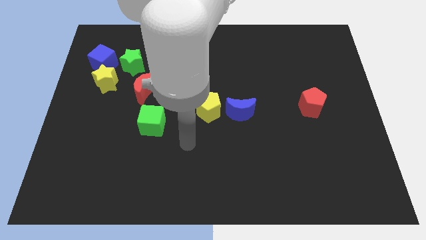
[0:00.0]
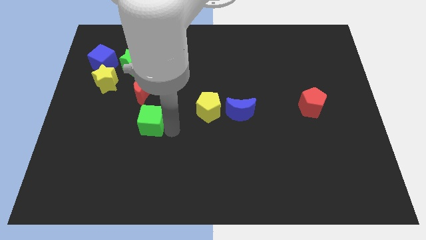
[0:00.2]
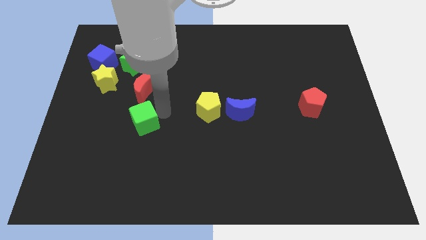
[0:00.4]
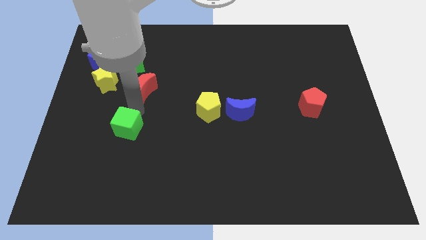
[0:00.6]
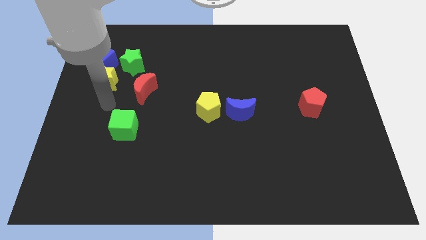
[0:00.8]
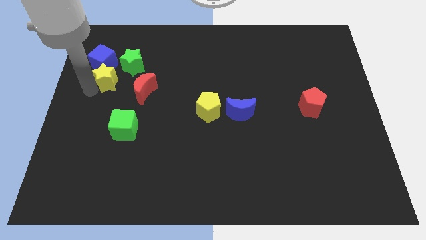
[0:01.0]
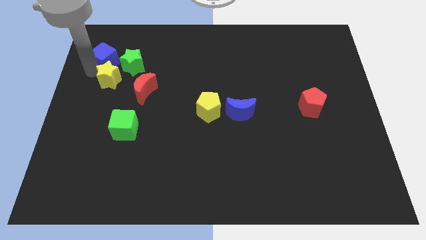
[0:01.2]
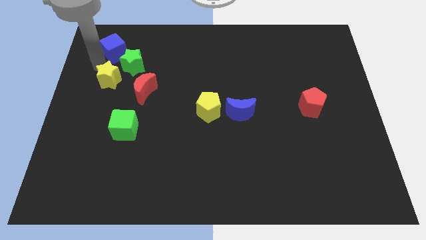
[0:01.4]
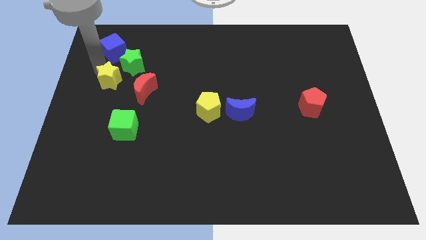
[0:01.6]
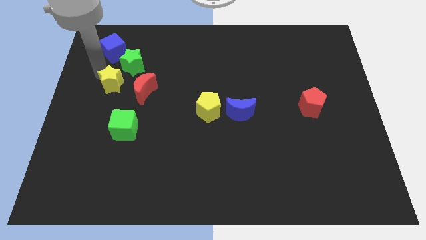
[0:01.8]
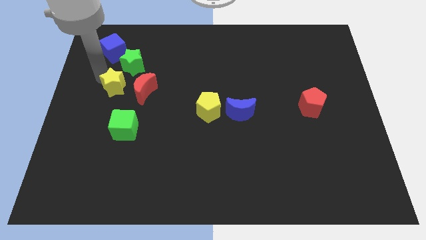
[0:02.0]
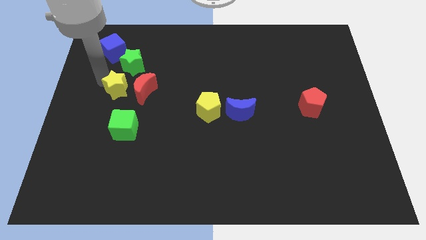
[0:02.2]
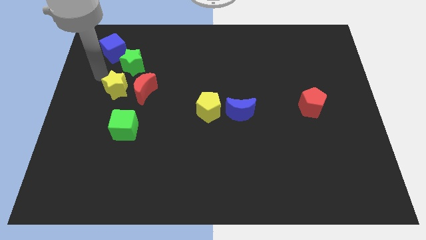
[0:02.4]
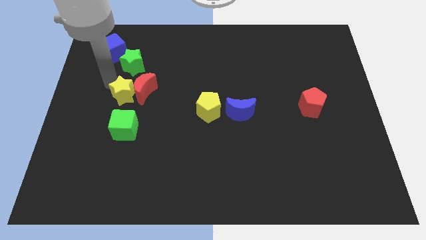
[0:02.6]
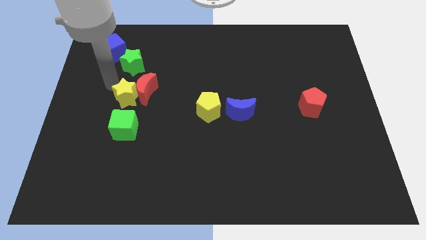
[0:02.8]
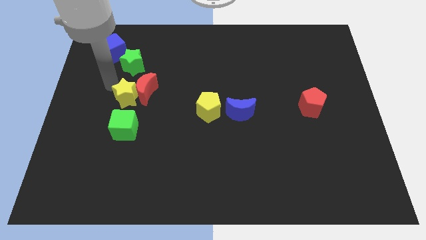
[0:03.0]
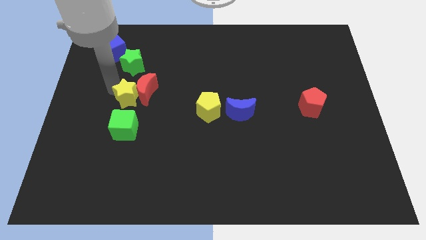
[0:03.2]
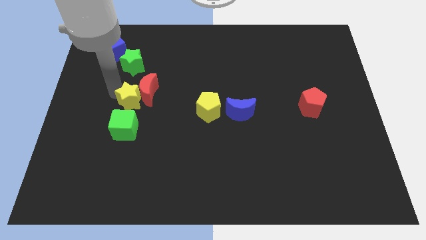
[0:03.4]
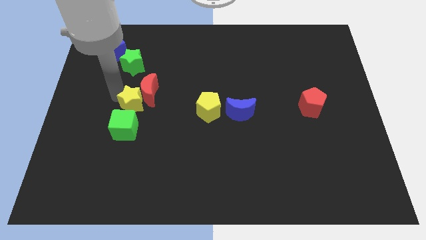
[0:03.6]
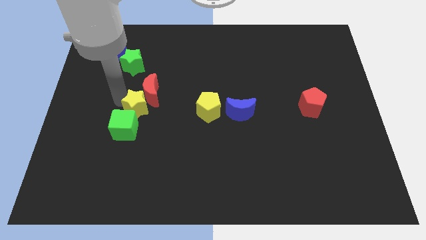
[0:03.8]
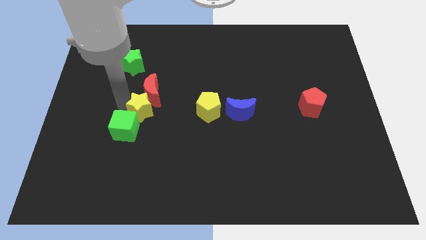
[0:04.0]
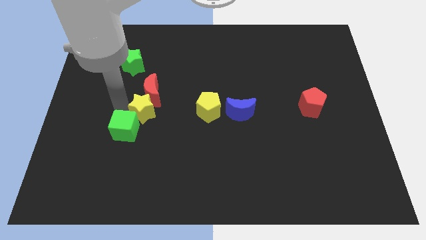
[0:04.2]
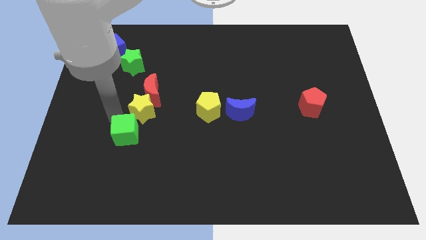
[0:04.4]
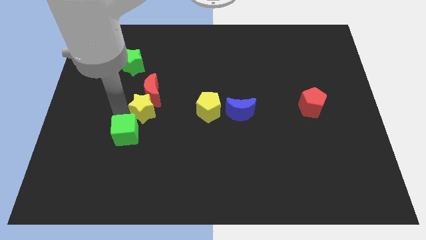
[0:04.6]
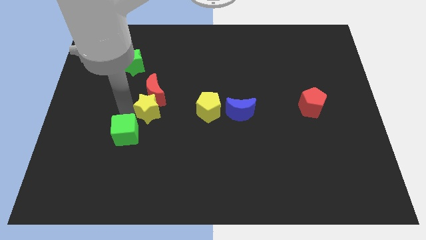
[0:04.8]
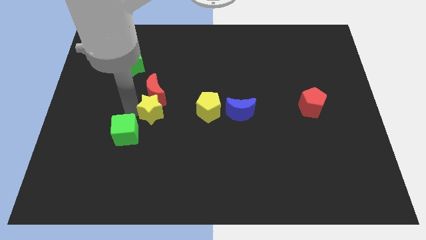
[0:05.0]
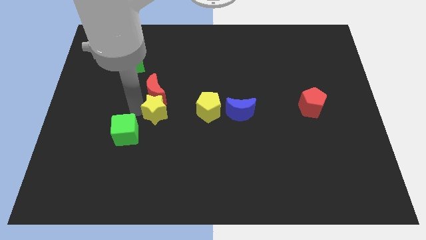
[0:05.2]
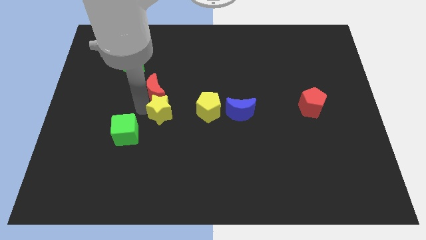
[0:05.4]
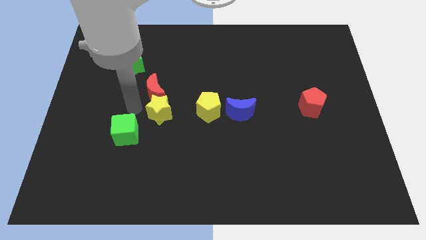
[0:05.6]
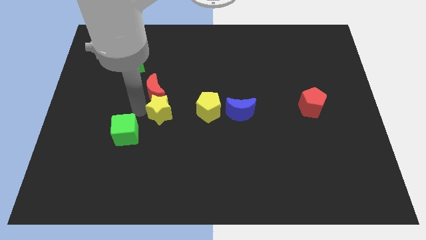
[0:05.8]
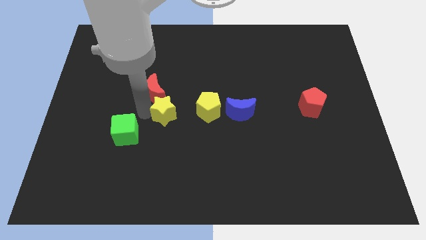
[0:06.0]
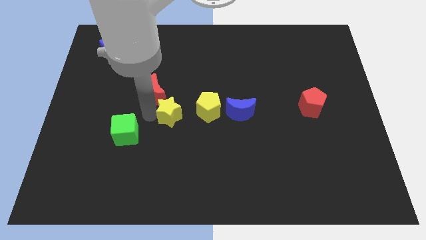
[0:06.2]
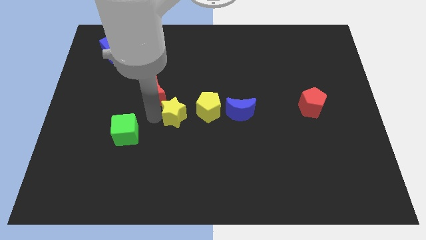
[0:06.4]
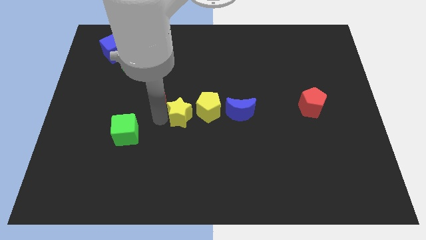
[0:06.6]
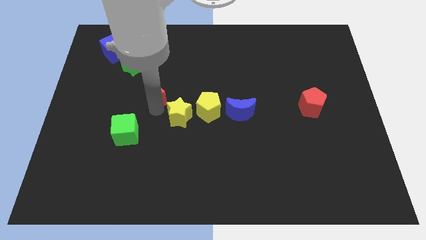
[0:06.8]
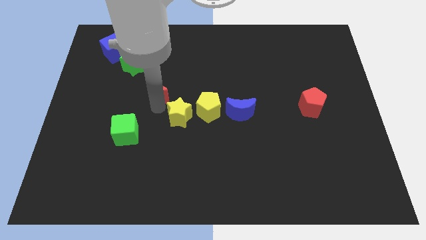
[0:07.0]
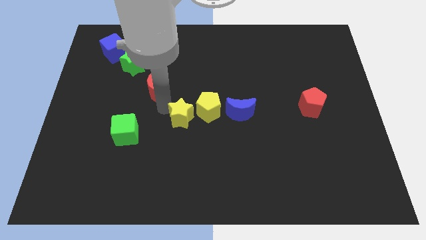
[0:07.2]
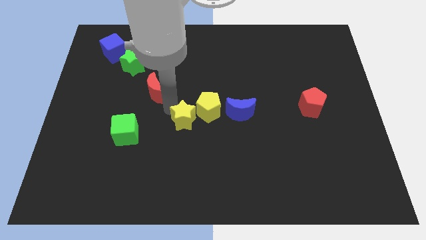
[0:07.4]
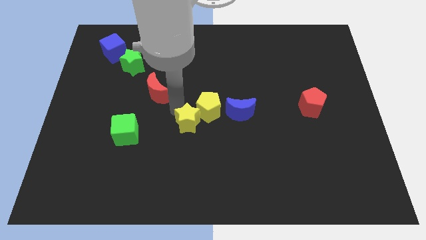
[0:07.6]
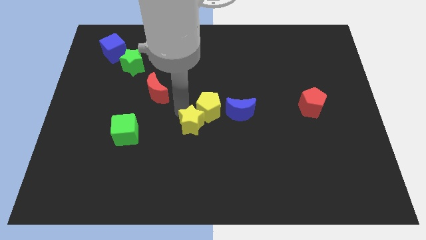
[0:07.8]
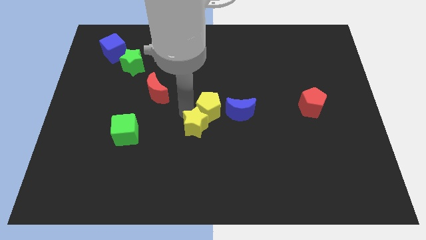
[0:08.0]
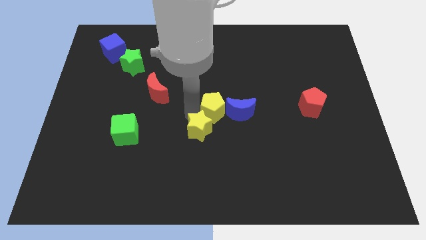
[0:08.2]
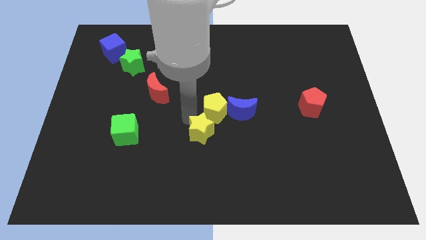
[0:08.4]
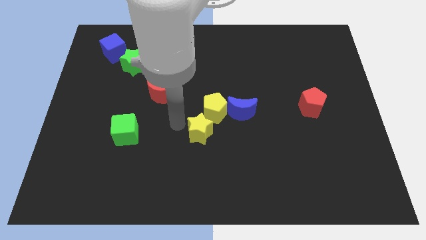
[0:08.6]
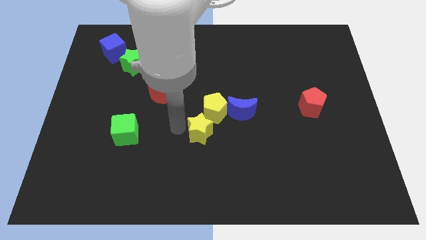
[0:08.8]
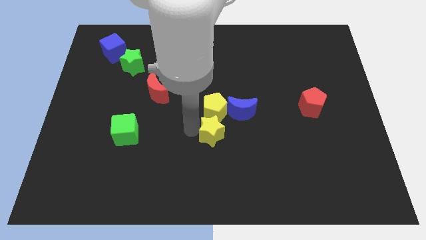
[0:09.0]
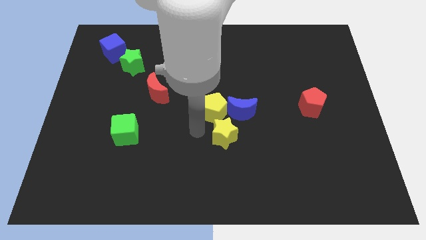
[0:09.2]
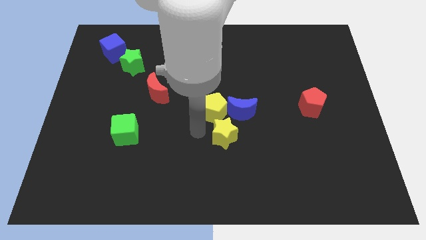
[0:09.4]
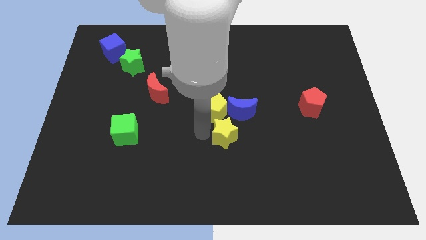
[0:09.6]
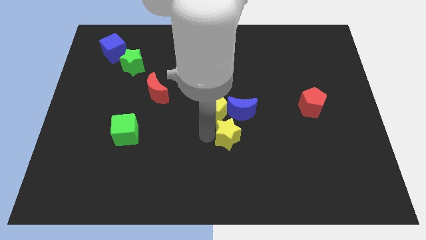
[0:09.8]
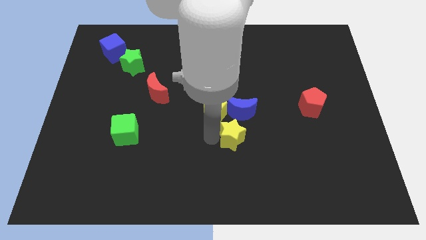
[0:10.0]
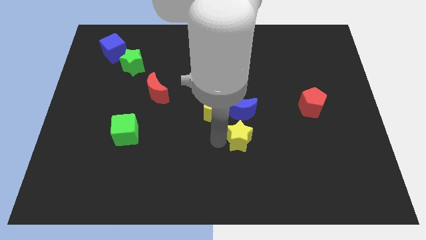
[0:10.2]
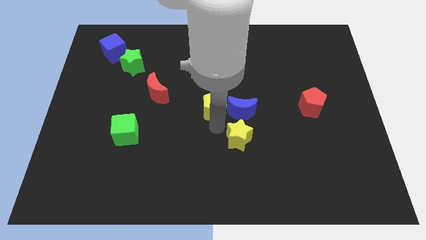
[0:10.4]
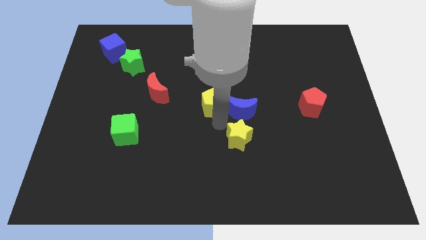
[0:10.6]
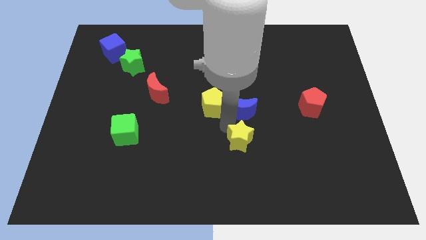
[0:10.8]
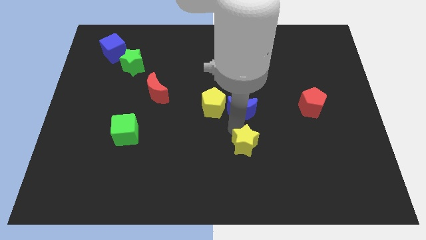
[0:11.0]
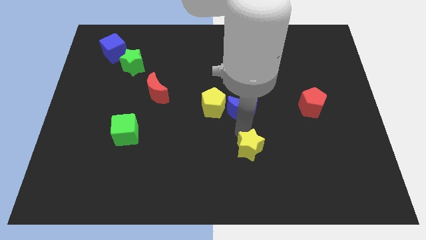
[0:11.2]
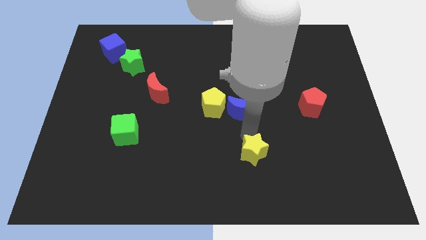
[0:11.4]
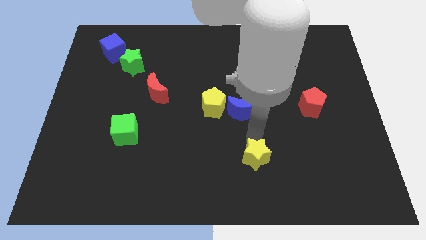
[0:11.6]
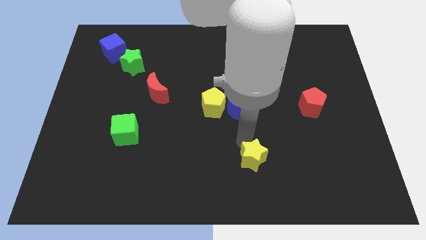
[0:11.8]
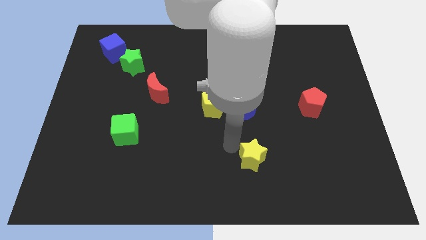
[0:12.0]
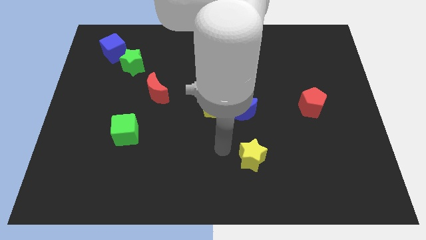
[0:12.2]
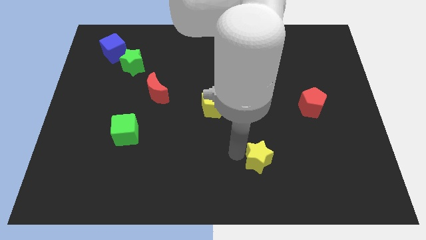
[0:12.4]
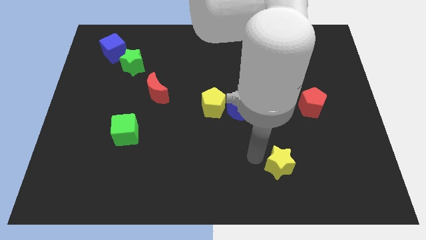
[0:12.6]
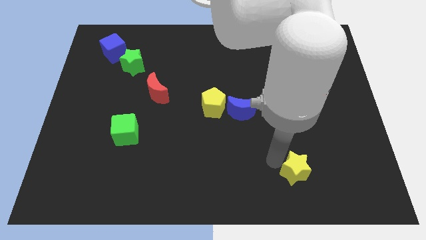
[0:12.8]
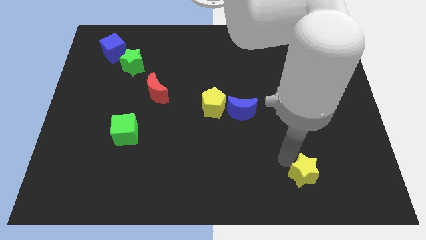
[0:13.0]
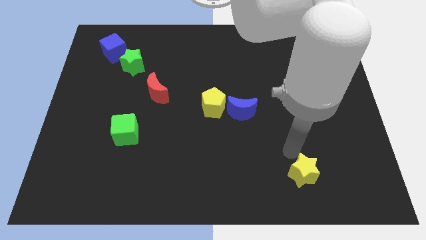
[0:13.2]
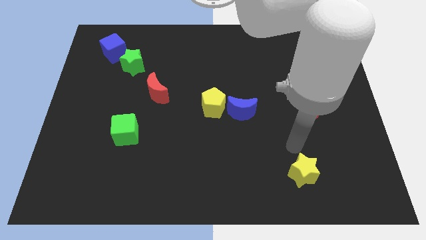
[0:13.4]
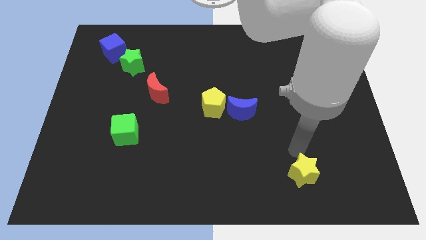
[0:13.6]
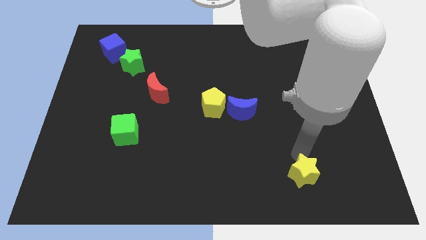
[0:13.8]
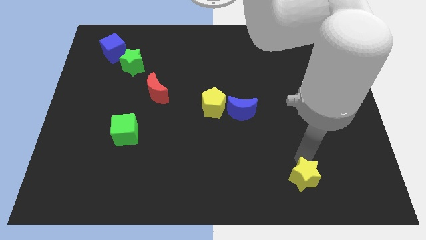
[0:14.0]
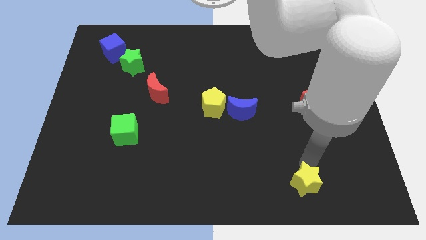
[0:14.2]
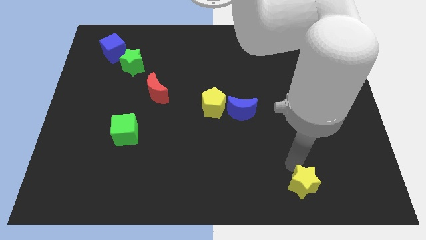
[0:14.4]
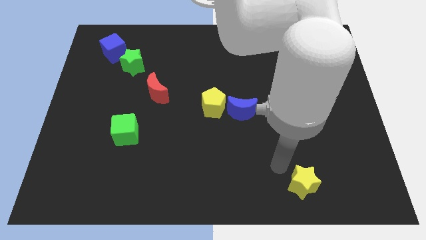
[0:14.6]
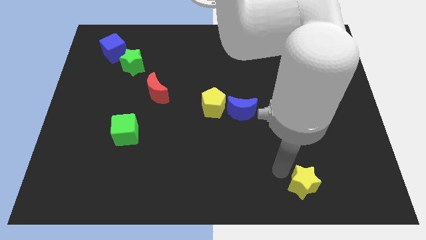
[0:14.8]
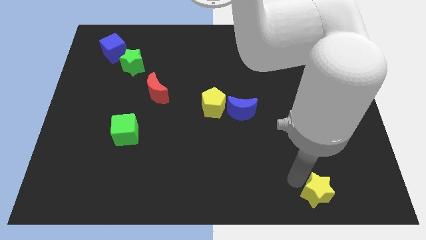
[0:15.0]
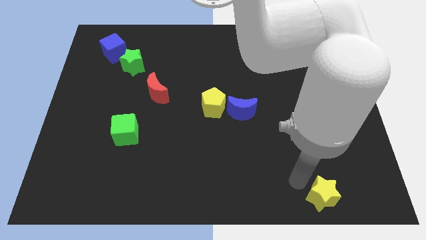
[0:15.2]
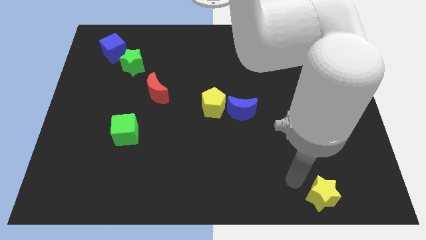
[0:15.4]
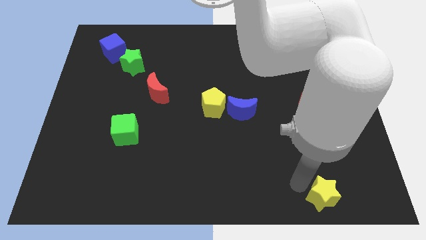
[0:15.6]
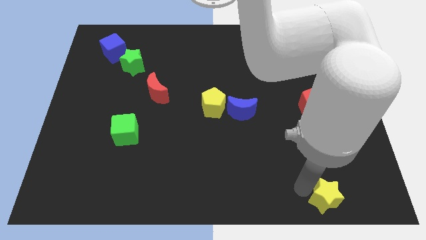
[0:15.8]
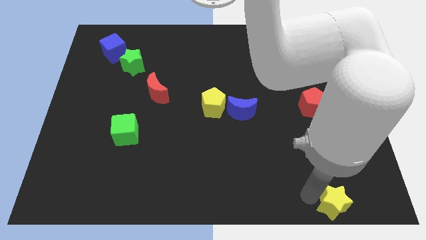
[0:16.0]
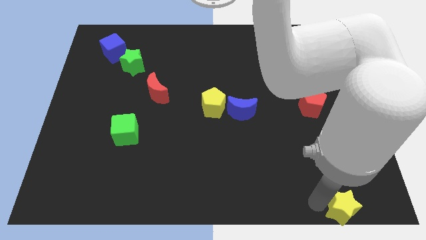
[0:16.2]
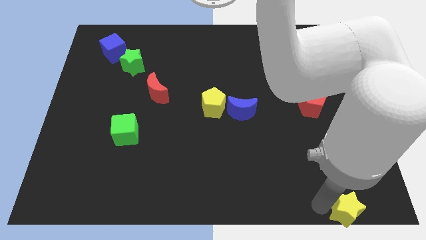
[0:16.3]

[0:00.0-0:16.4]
push the yellow star to the bottom right corner
